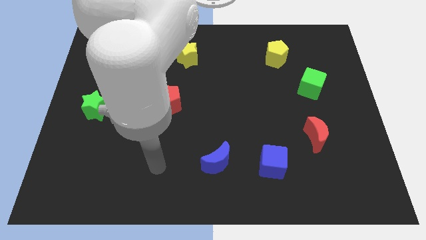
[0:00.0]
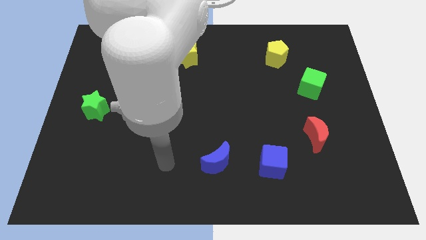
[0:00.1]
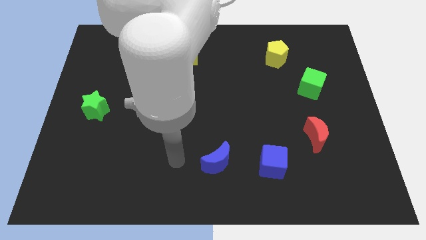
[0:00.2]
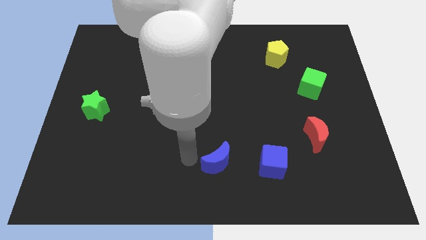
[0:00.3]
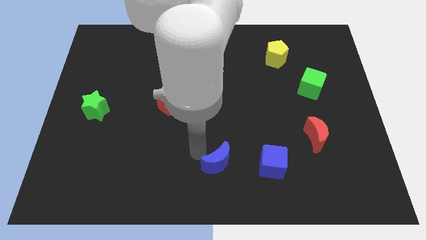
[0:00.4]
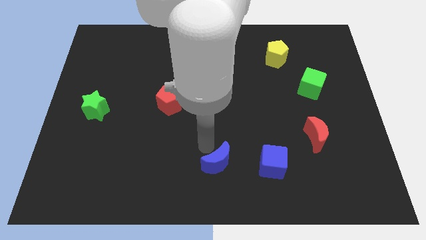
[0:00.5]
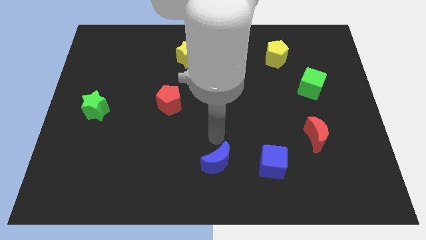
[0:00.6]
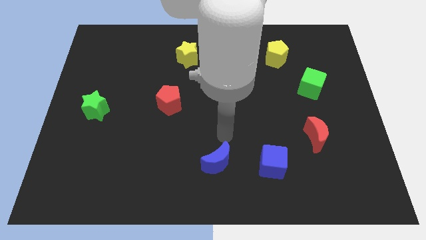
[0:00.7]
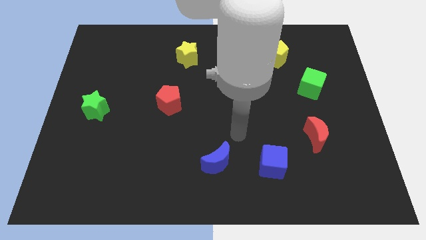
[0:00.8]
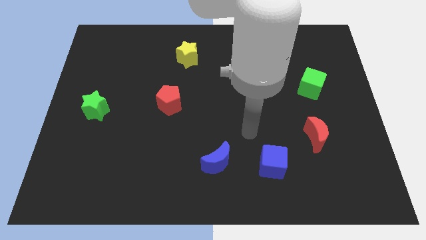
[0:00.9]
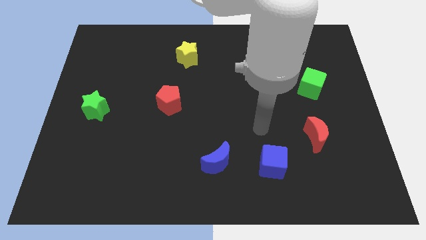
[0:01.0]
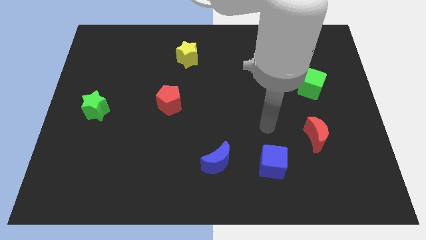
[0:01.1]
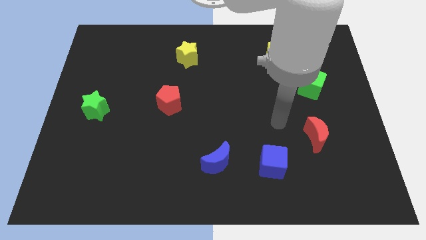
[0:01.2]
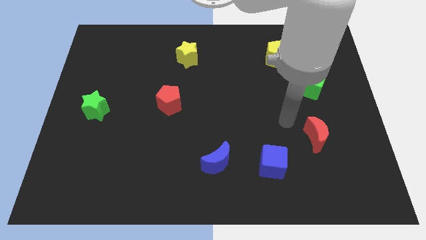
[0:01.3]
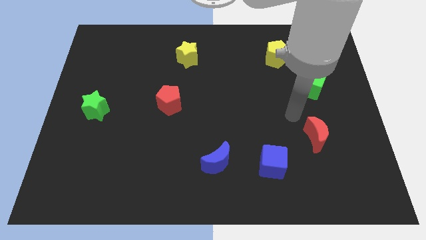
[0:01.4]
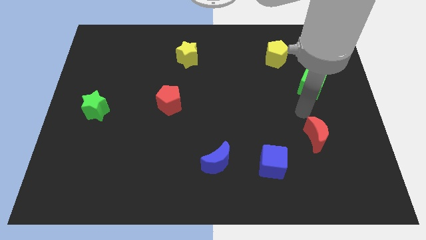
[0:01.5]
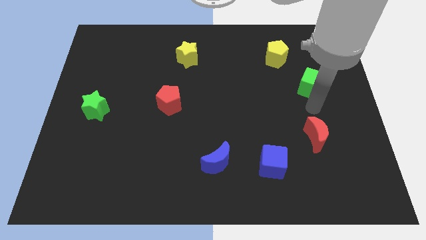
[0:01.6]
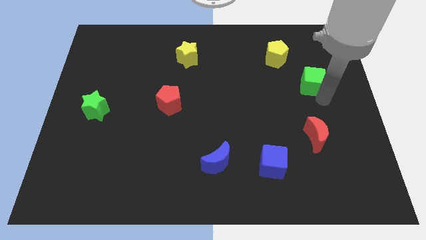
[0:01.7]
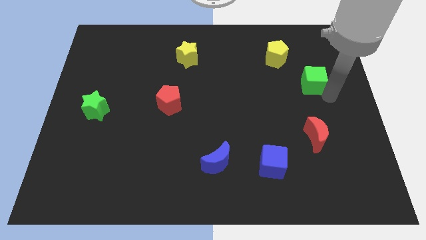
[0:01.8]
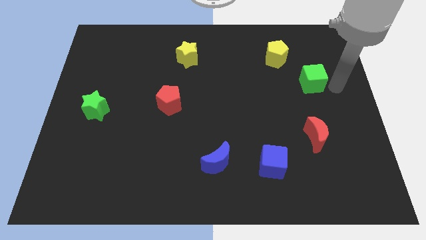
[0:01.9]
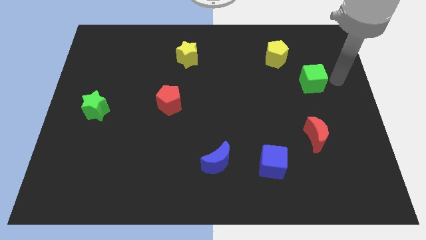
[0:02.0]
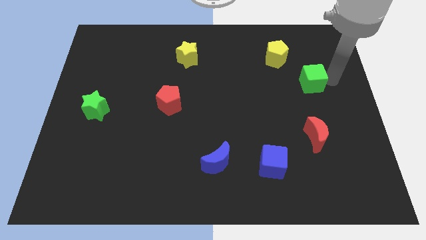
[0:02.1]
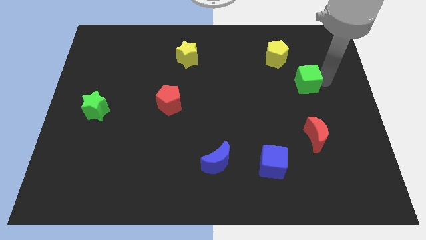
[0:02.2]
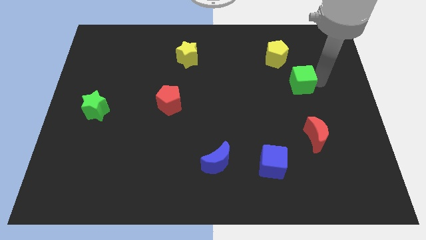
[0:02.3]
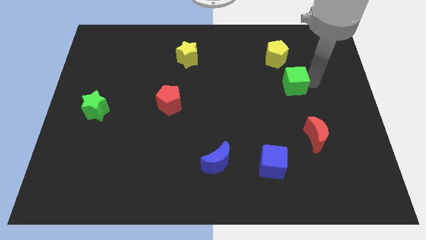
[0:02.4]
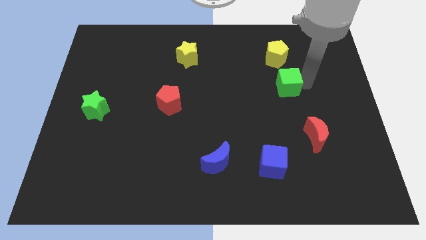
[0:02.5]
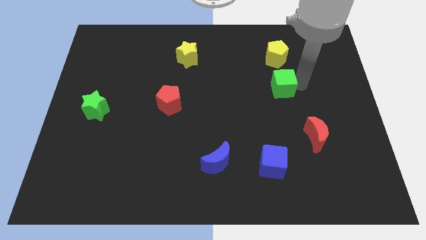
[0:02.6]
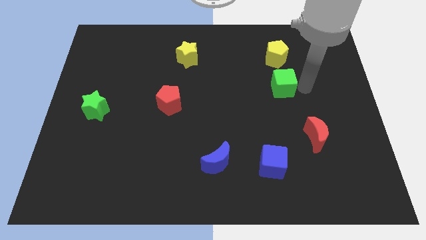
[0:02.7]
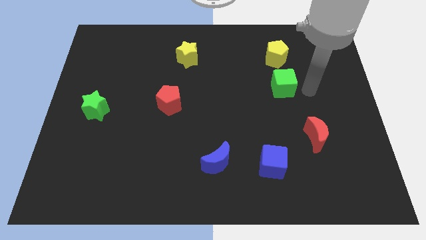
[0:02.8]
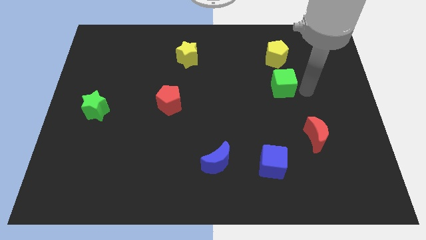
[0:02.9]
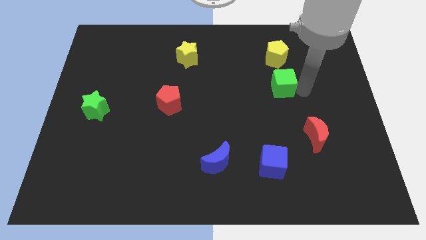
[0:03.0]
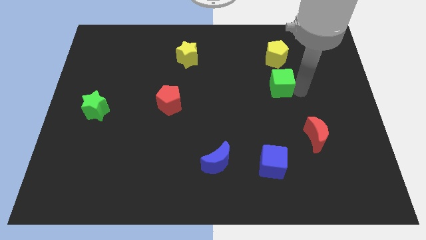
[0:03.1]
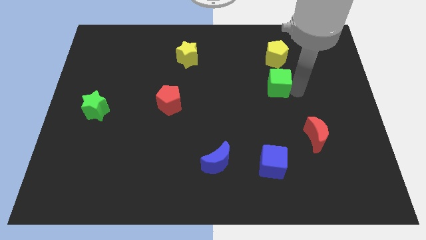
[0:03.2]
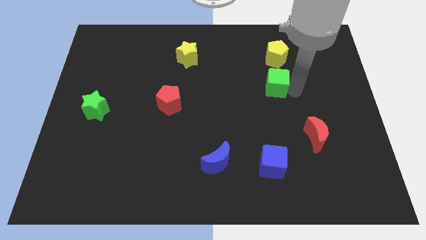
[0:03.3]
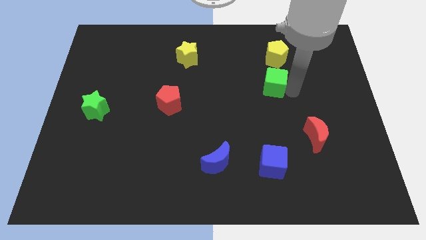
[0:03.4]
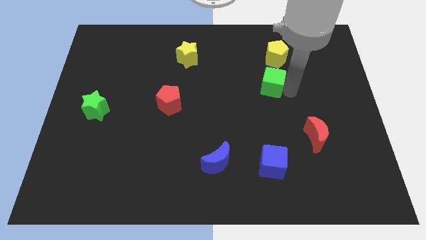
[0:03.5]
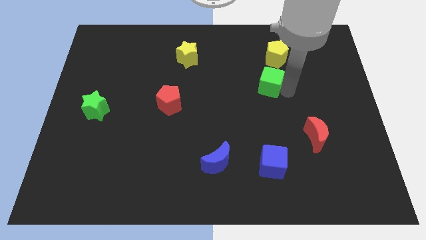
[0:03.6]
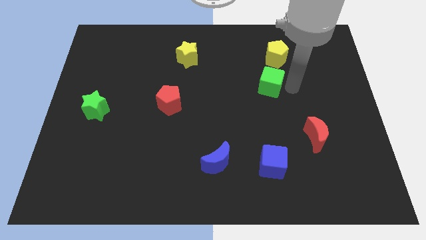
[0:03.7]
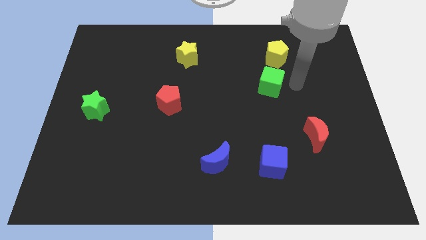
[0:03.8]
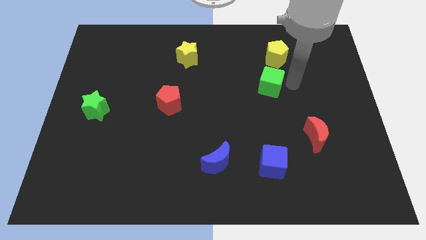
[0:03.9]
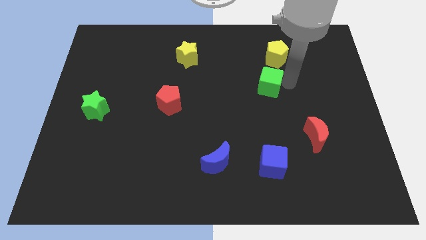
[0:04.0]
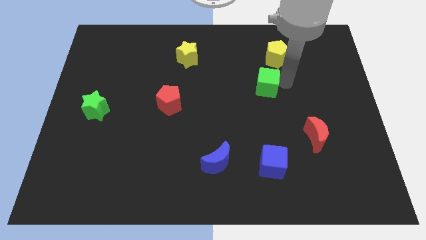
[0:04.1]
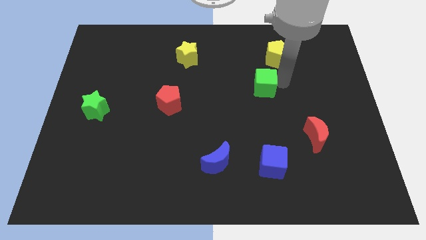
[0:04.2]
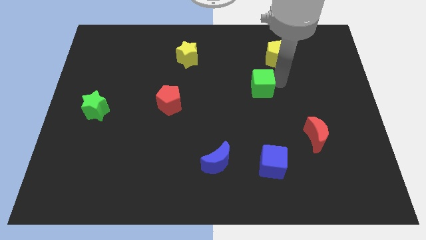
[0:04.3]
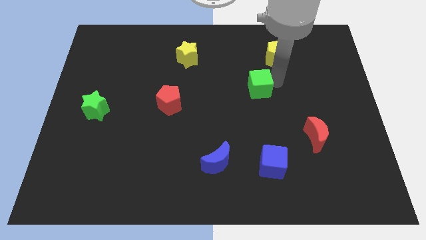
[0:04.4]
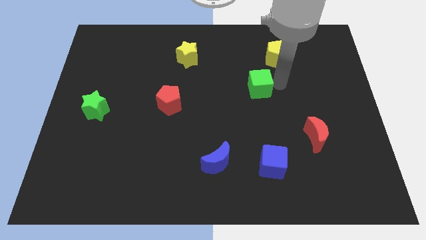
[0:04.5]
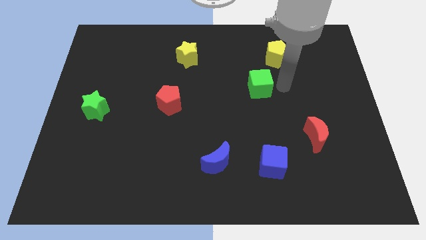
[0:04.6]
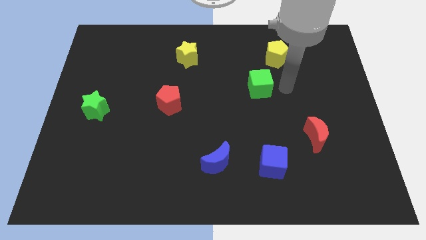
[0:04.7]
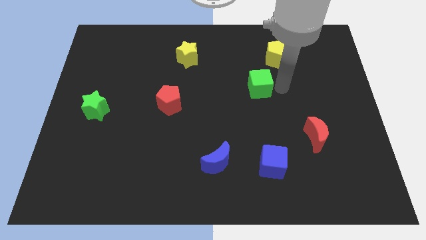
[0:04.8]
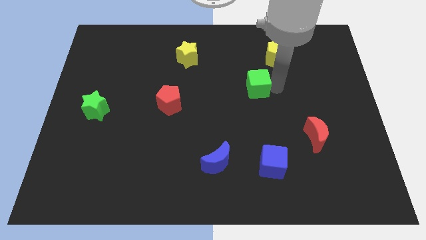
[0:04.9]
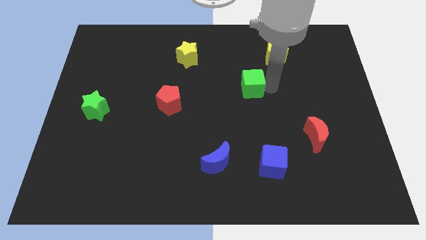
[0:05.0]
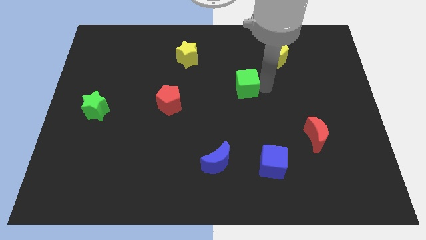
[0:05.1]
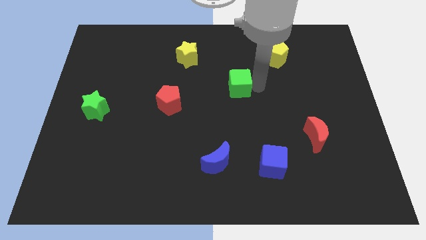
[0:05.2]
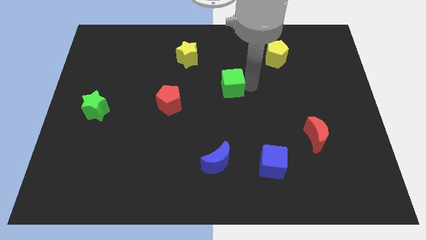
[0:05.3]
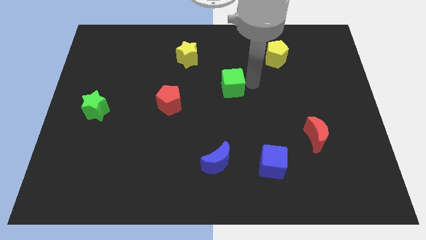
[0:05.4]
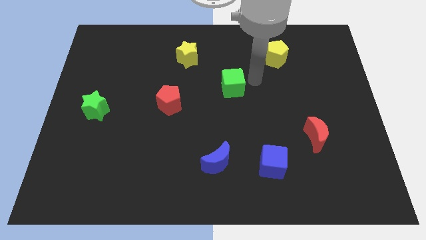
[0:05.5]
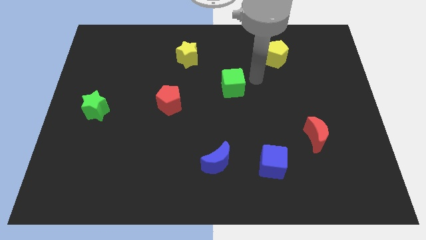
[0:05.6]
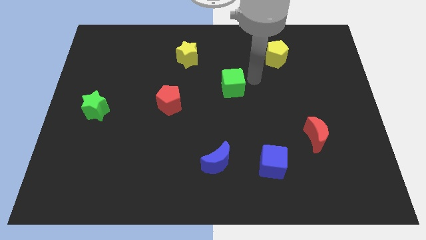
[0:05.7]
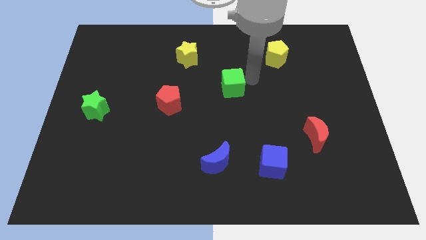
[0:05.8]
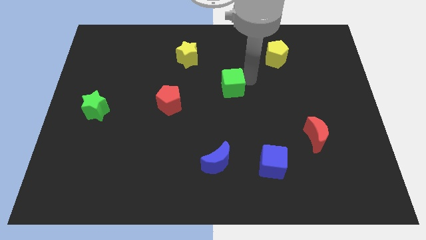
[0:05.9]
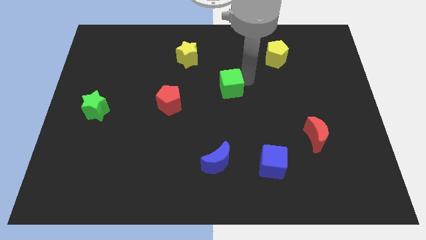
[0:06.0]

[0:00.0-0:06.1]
slide the green cube left

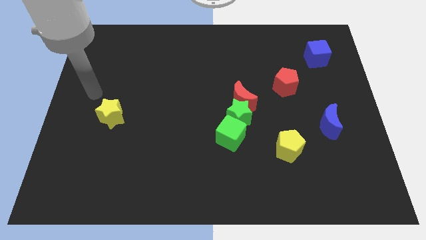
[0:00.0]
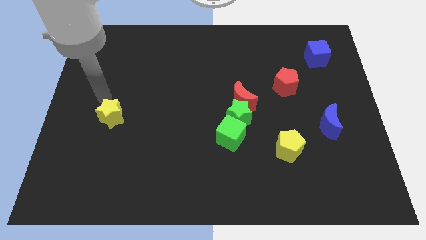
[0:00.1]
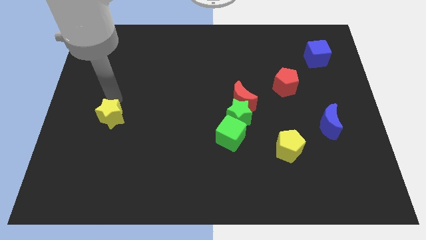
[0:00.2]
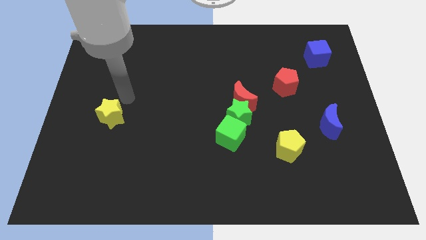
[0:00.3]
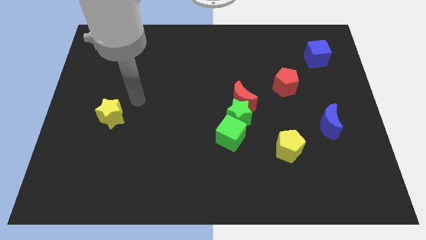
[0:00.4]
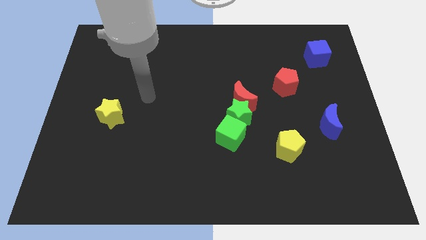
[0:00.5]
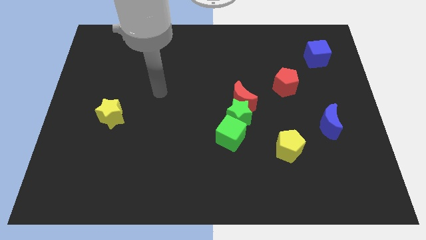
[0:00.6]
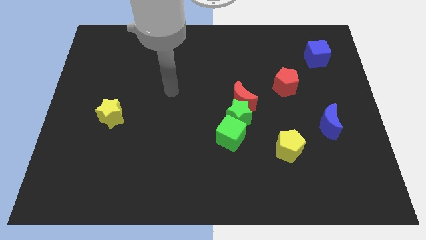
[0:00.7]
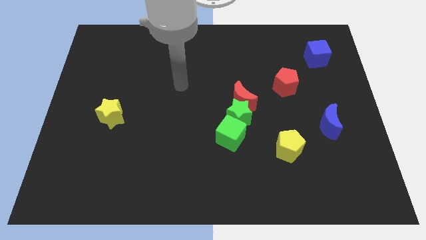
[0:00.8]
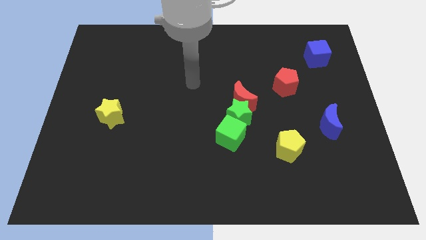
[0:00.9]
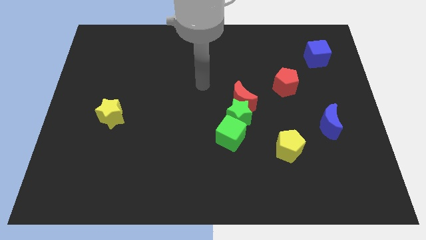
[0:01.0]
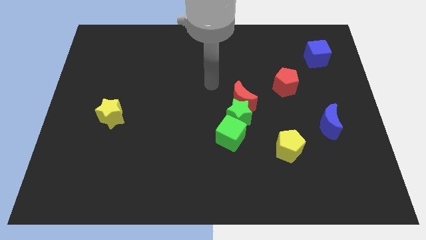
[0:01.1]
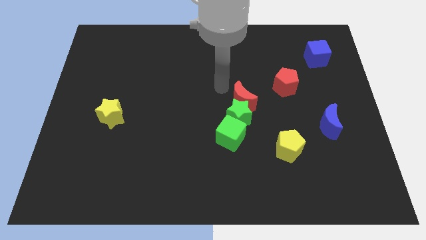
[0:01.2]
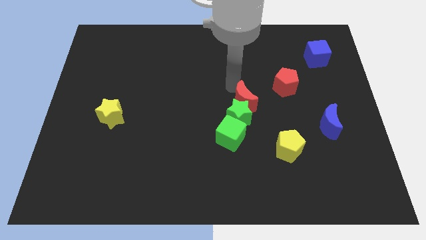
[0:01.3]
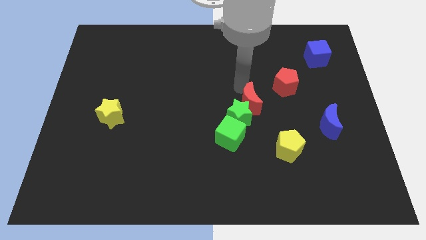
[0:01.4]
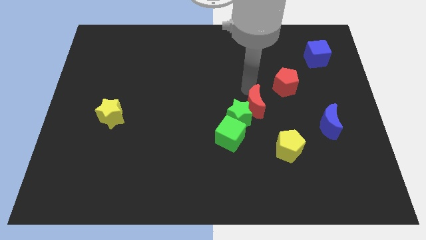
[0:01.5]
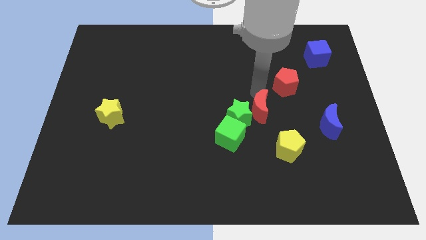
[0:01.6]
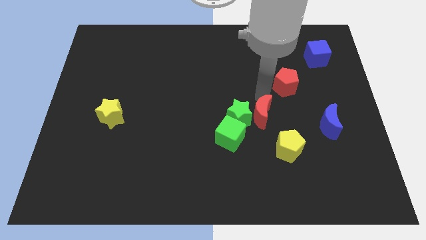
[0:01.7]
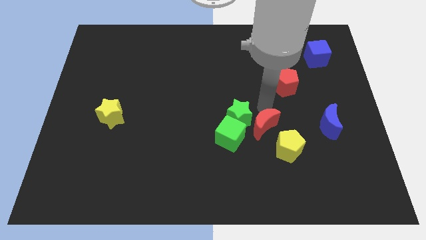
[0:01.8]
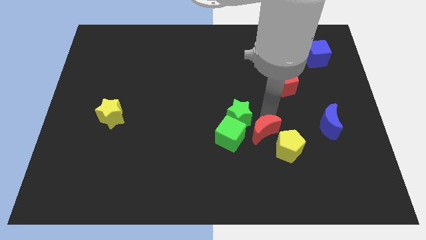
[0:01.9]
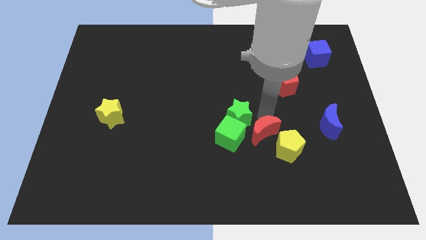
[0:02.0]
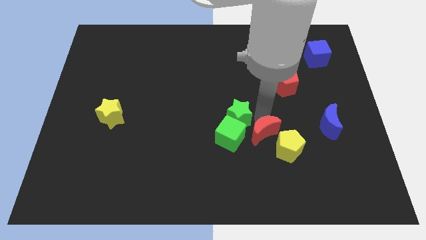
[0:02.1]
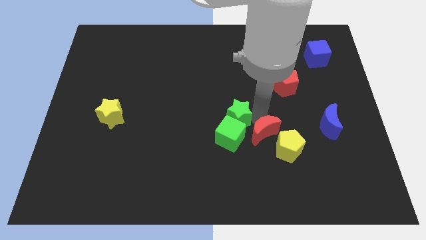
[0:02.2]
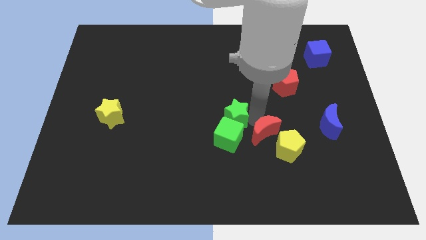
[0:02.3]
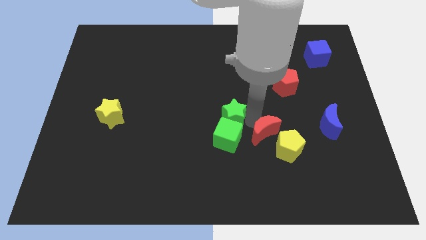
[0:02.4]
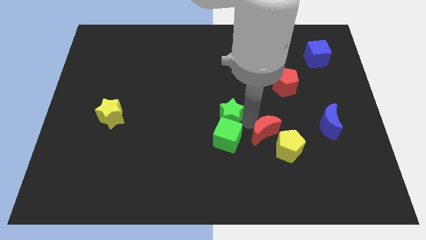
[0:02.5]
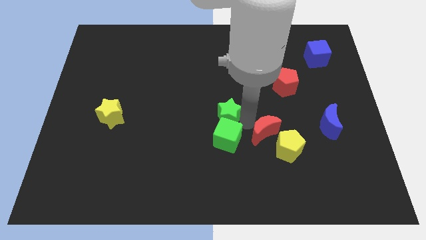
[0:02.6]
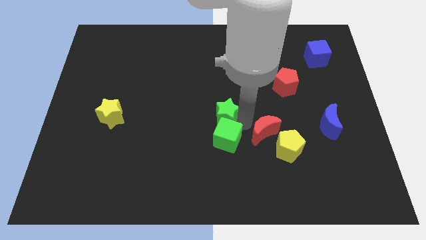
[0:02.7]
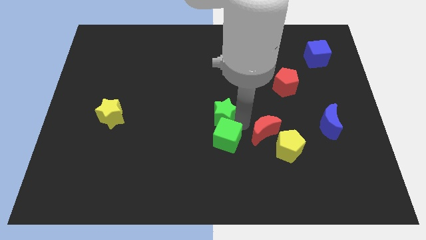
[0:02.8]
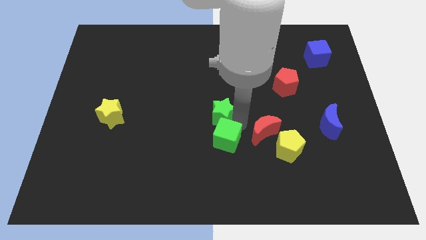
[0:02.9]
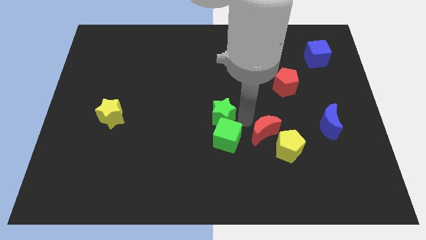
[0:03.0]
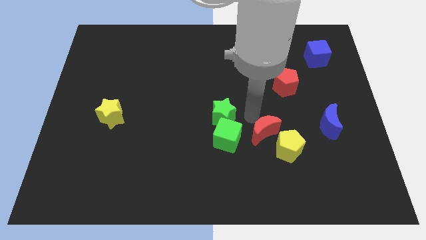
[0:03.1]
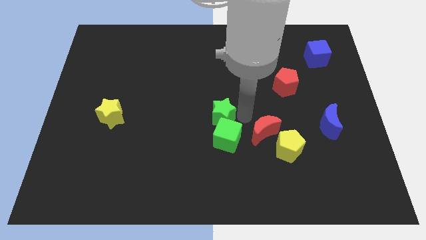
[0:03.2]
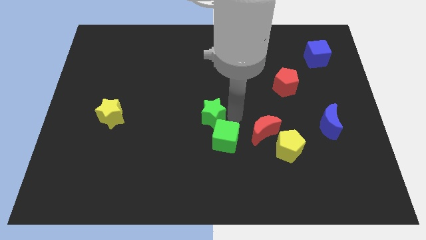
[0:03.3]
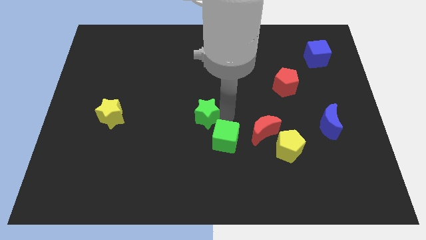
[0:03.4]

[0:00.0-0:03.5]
push the green star somewhat to the left
